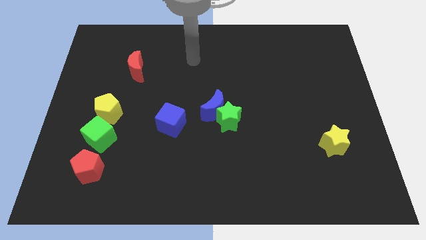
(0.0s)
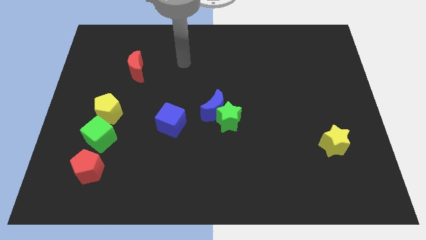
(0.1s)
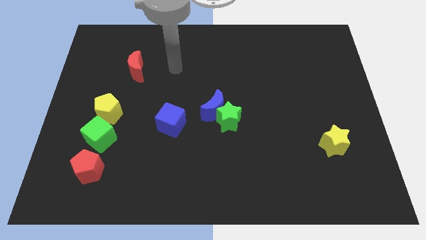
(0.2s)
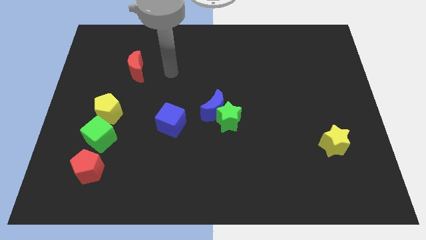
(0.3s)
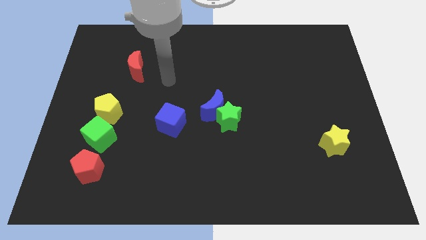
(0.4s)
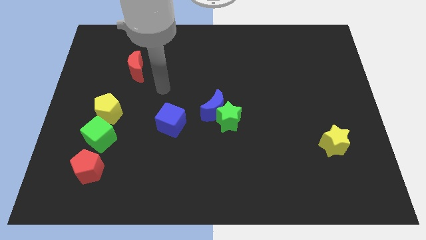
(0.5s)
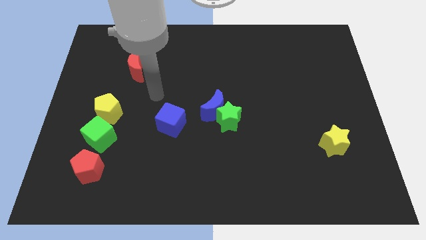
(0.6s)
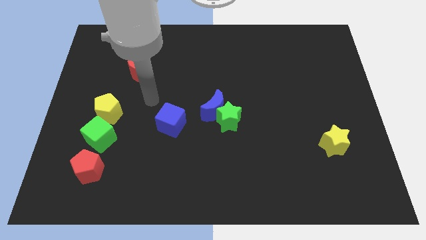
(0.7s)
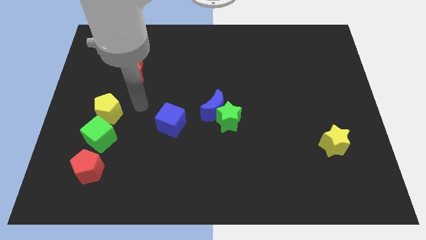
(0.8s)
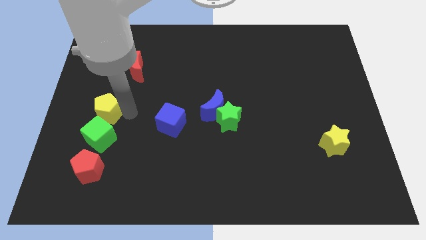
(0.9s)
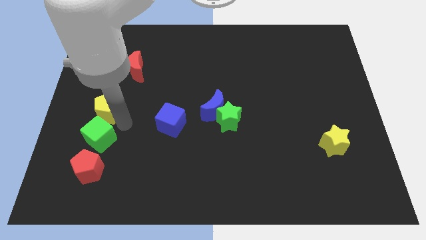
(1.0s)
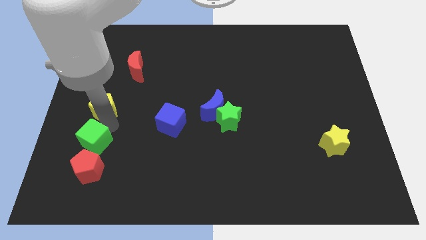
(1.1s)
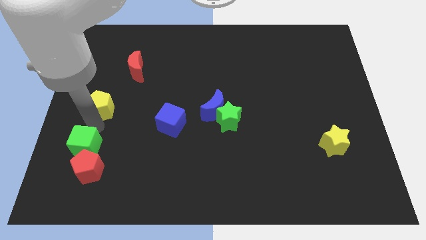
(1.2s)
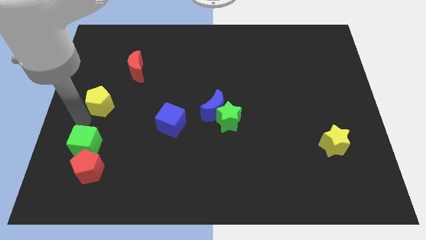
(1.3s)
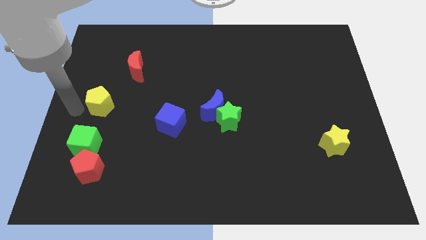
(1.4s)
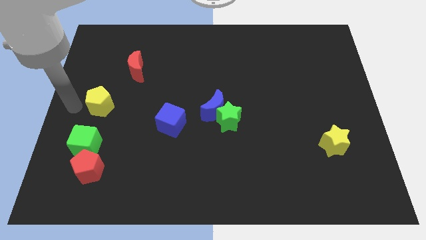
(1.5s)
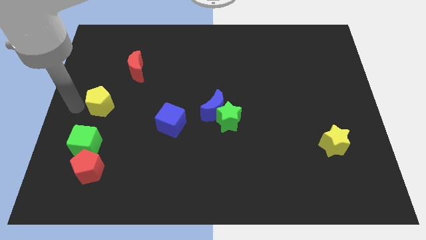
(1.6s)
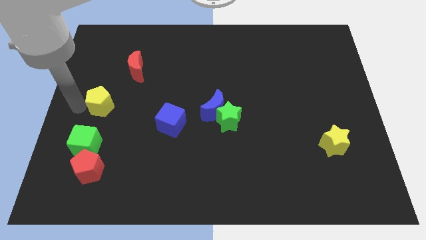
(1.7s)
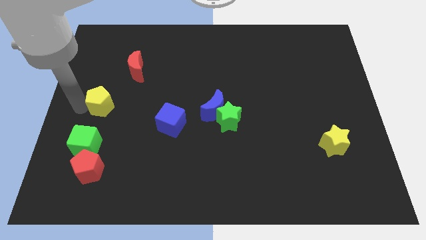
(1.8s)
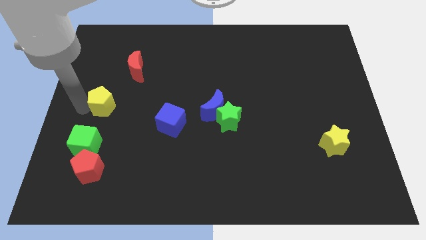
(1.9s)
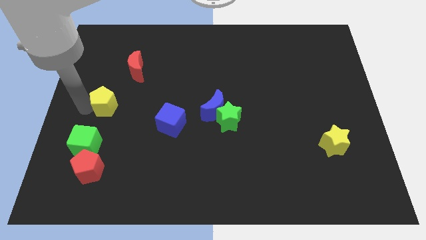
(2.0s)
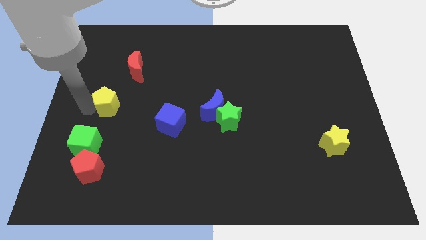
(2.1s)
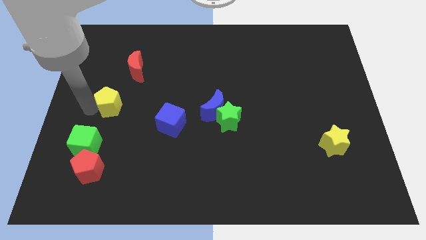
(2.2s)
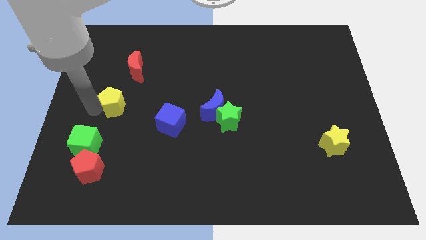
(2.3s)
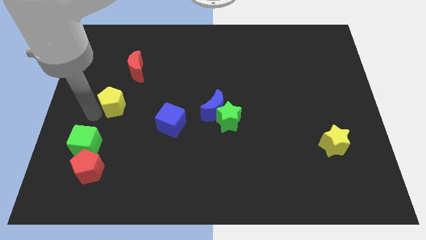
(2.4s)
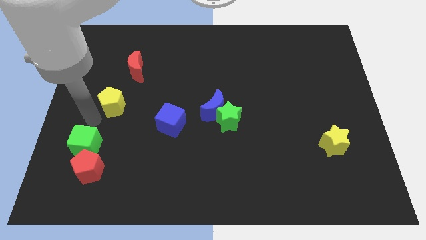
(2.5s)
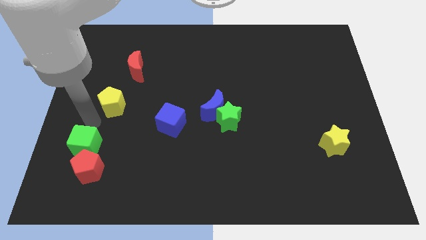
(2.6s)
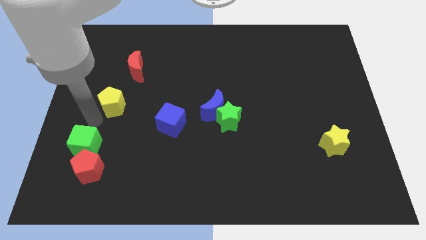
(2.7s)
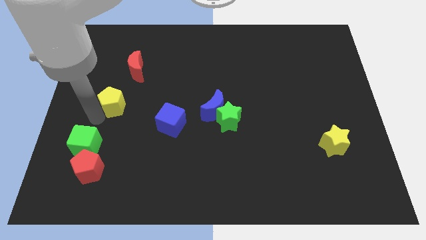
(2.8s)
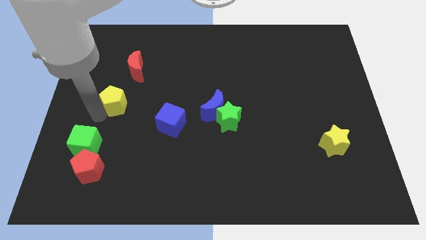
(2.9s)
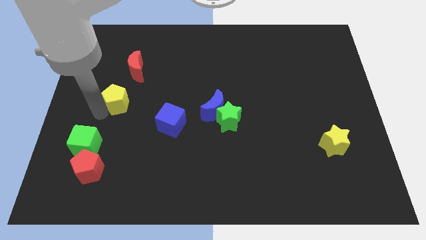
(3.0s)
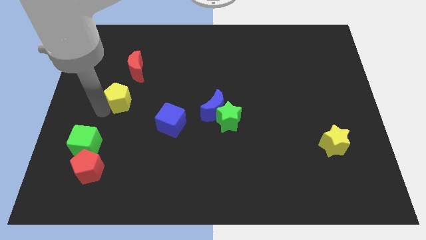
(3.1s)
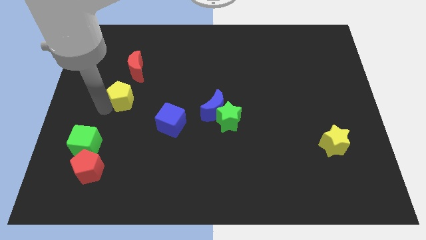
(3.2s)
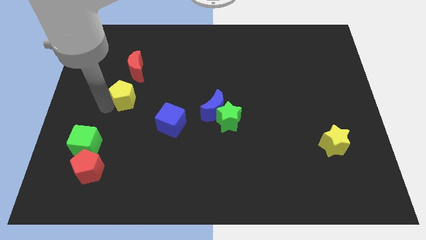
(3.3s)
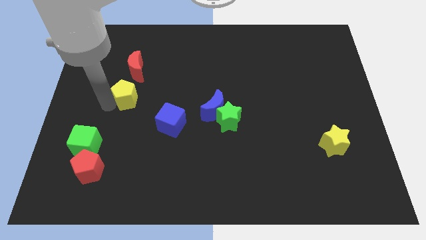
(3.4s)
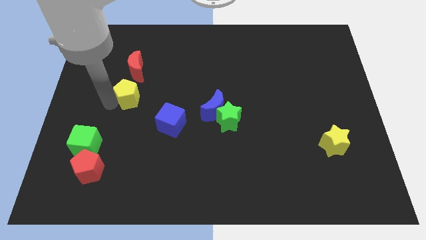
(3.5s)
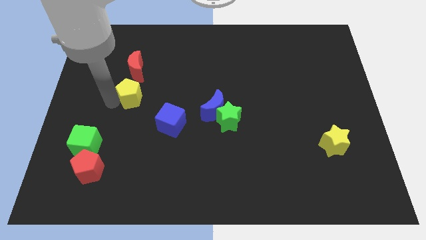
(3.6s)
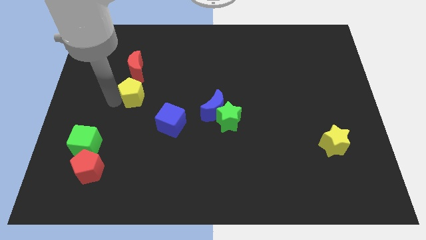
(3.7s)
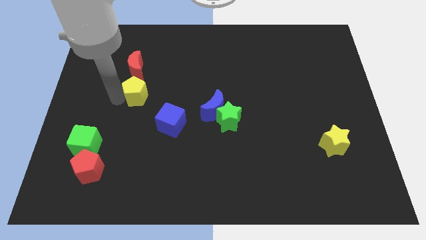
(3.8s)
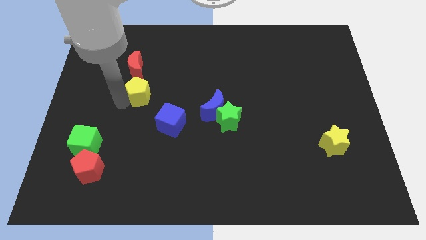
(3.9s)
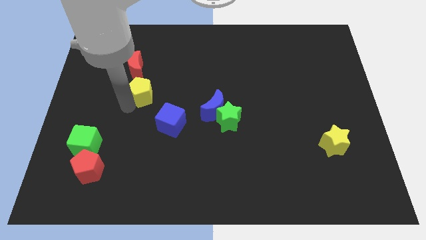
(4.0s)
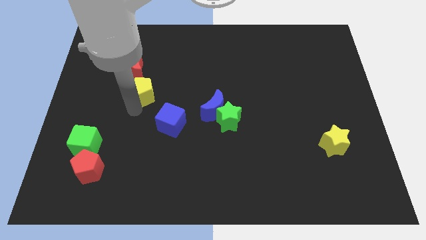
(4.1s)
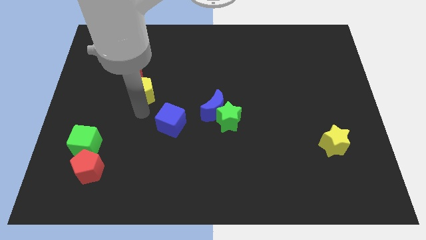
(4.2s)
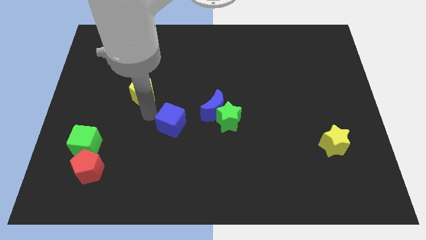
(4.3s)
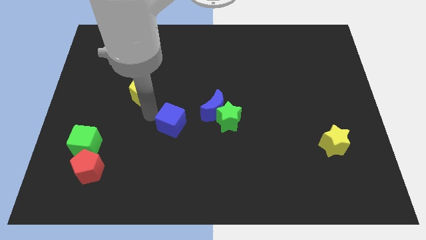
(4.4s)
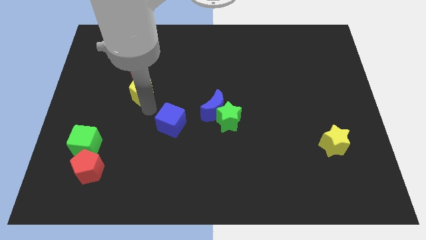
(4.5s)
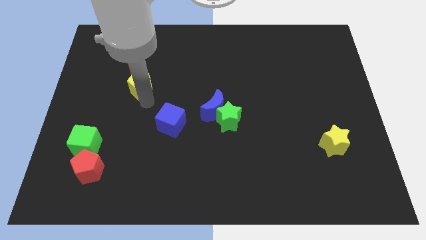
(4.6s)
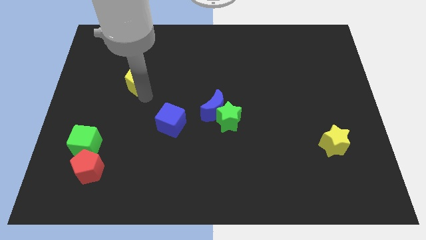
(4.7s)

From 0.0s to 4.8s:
slide the yellow pentagon close to the red moon

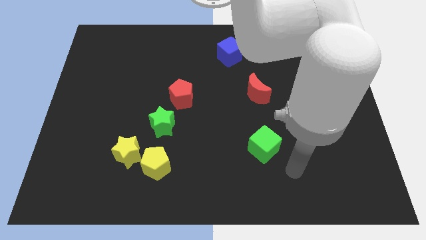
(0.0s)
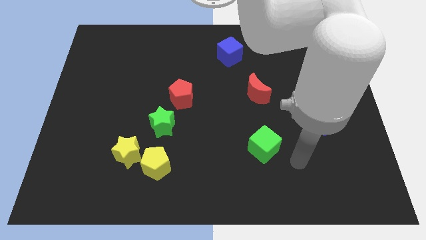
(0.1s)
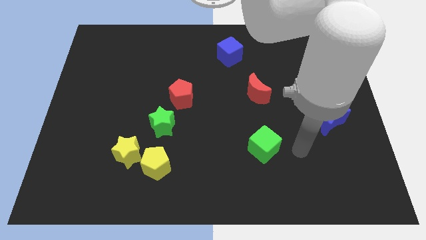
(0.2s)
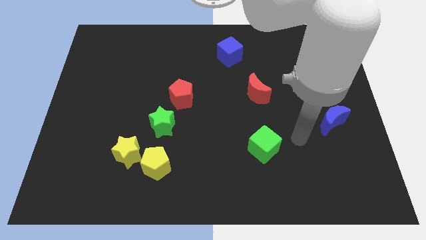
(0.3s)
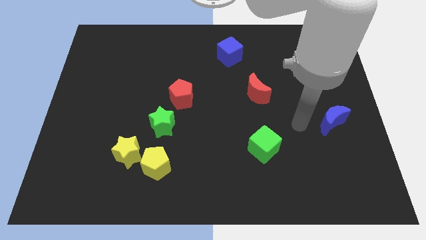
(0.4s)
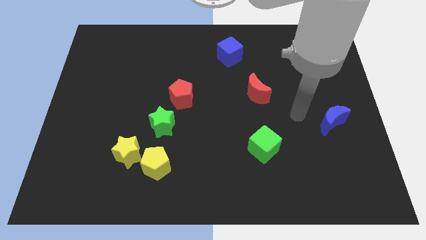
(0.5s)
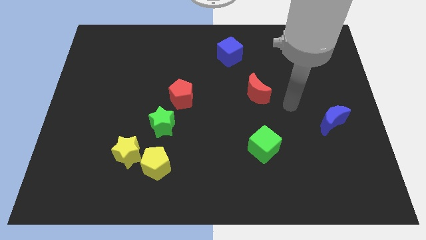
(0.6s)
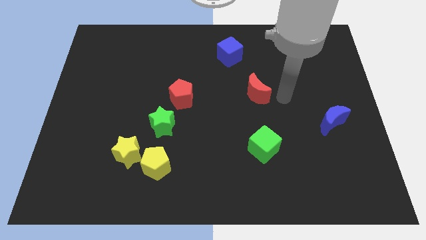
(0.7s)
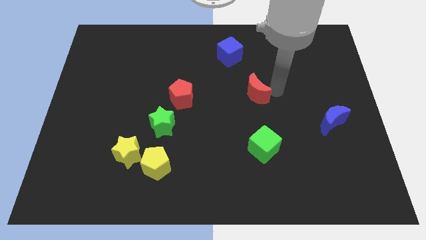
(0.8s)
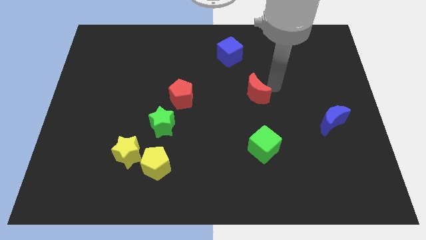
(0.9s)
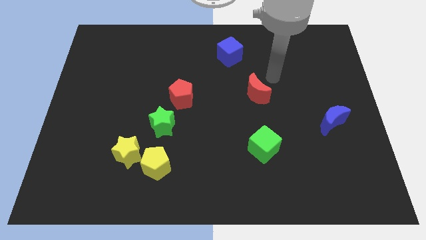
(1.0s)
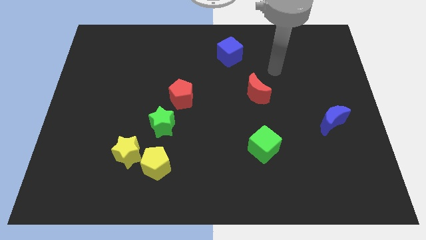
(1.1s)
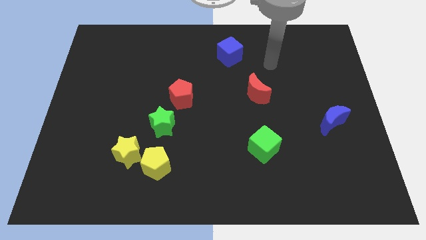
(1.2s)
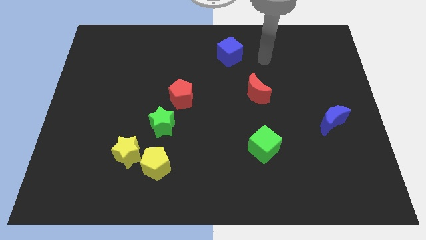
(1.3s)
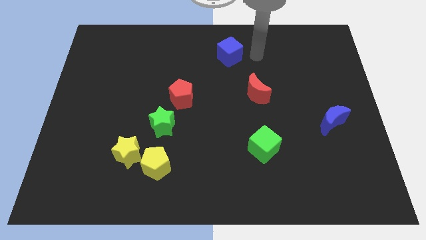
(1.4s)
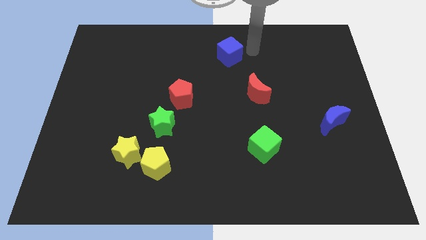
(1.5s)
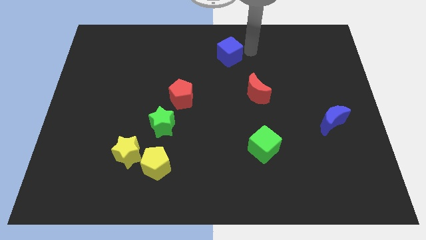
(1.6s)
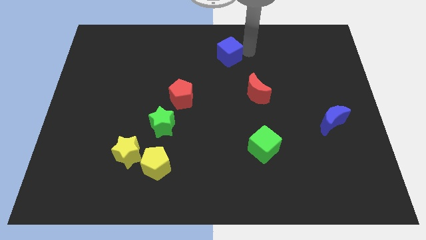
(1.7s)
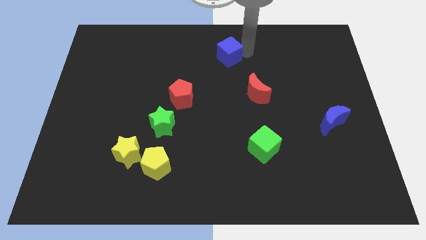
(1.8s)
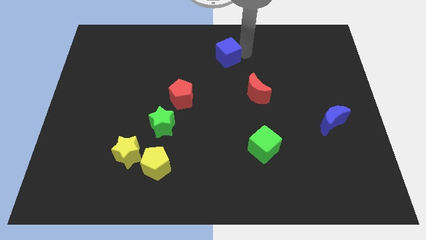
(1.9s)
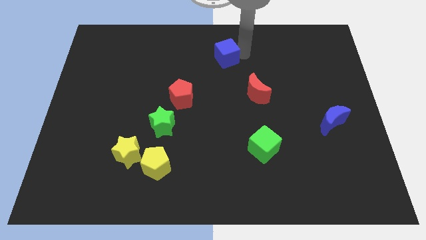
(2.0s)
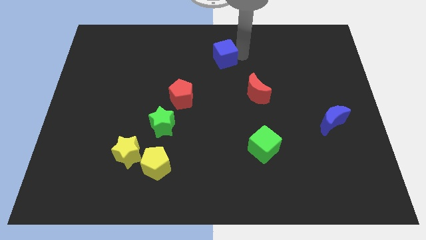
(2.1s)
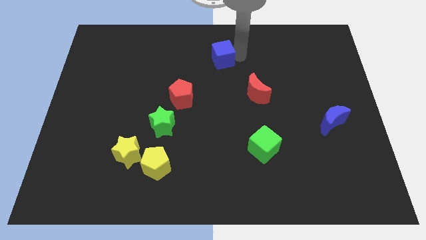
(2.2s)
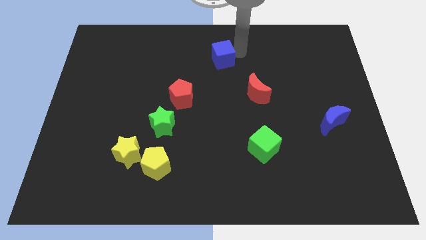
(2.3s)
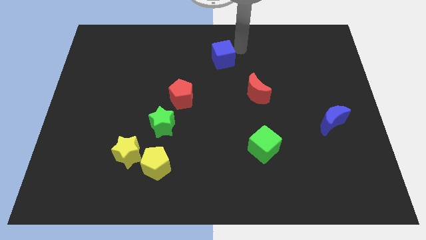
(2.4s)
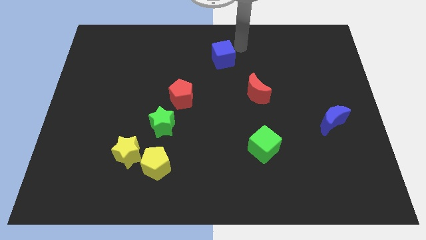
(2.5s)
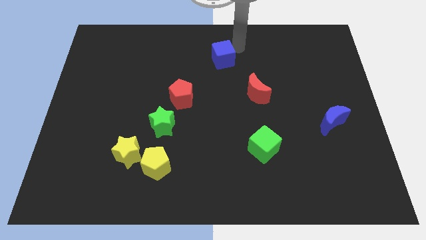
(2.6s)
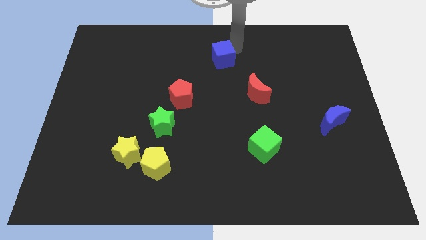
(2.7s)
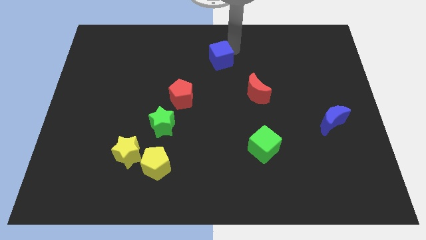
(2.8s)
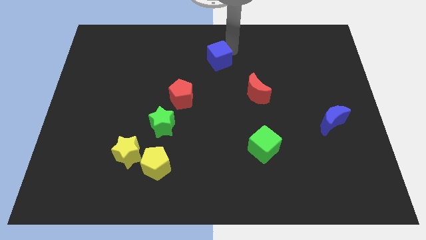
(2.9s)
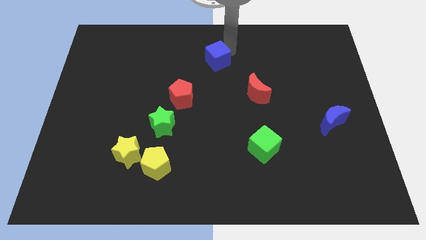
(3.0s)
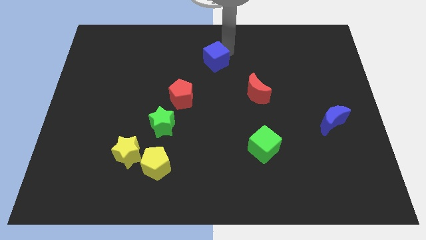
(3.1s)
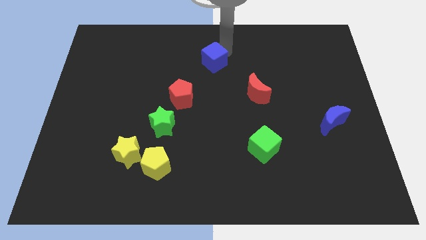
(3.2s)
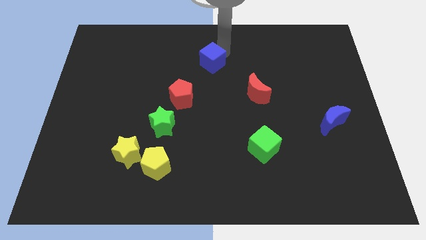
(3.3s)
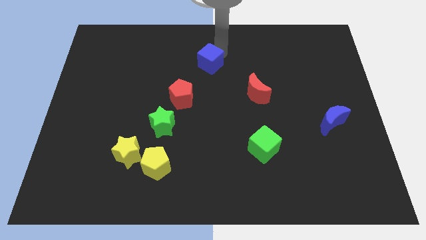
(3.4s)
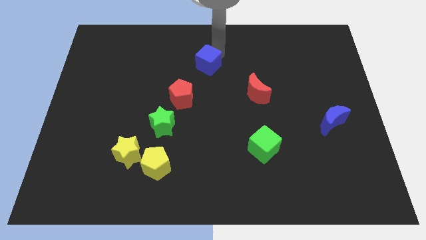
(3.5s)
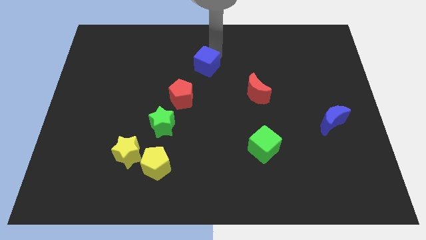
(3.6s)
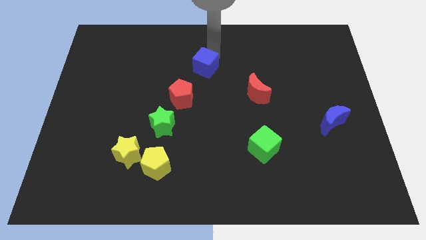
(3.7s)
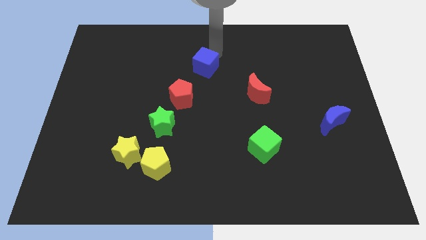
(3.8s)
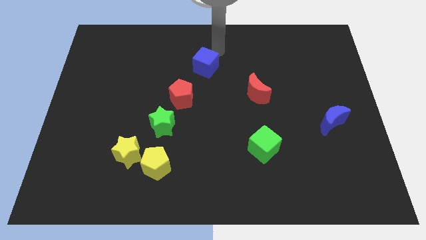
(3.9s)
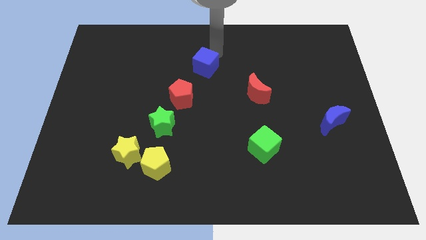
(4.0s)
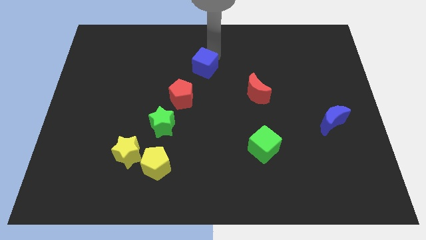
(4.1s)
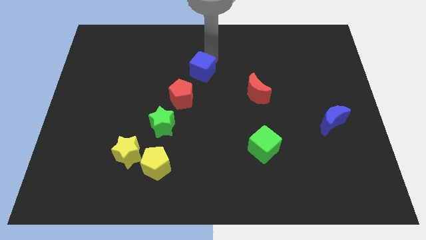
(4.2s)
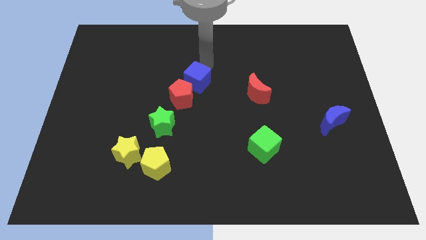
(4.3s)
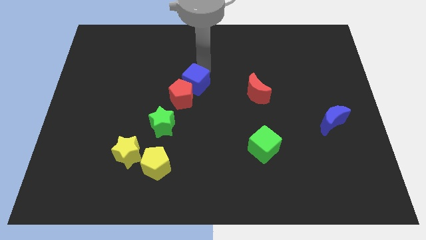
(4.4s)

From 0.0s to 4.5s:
put the blue cube next to the red pentagon
